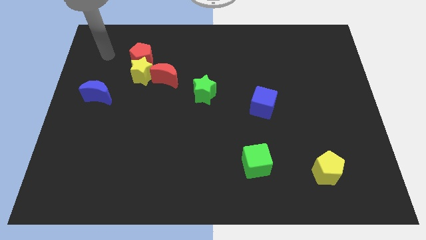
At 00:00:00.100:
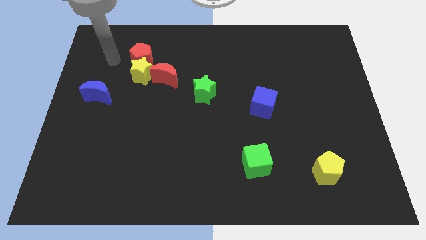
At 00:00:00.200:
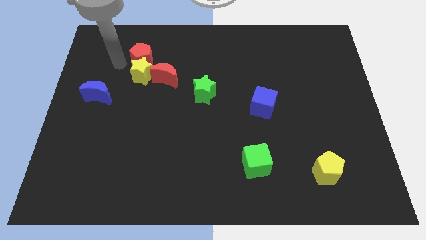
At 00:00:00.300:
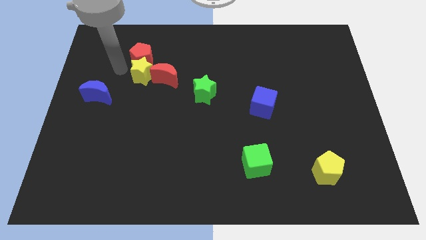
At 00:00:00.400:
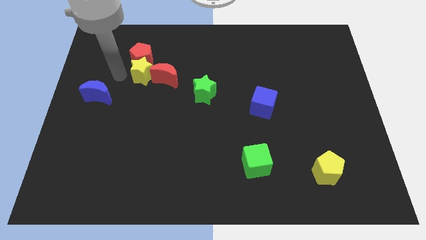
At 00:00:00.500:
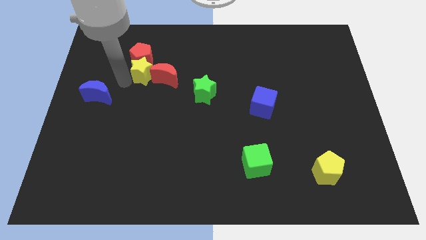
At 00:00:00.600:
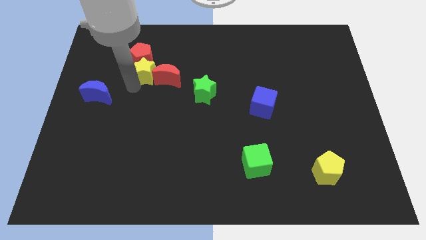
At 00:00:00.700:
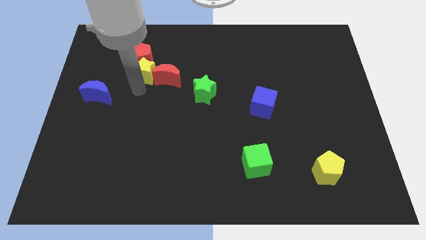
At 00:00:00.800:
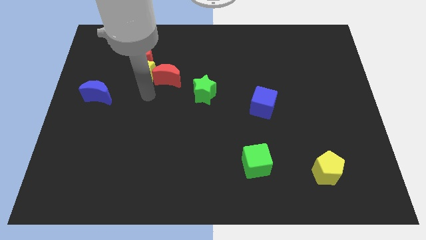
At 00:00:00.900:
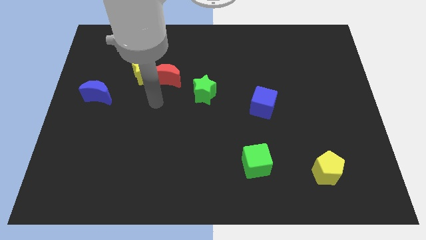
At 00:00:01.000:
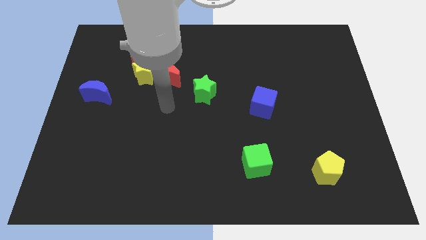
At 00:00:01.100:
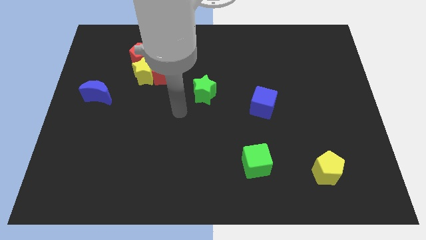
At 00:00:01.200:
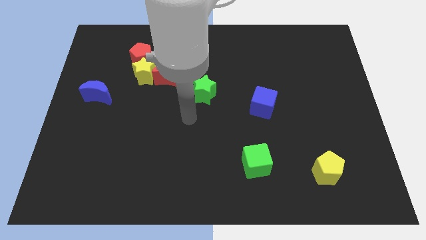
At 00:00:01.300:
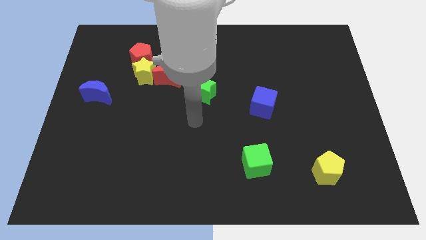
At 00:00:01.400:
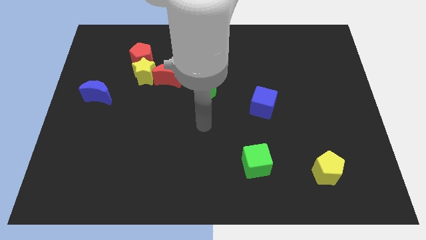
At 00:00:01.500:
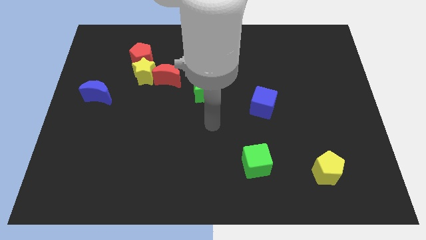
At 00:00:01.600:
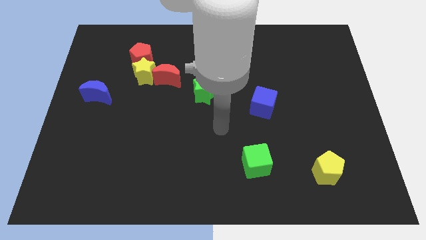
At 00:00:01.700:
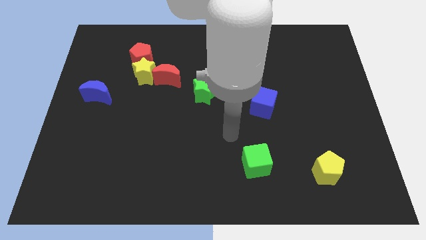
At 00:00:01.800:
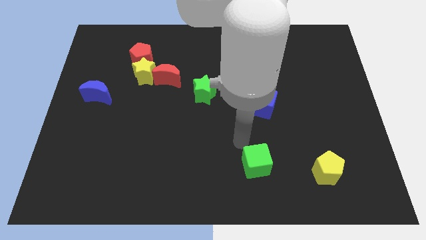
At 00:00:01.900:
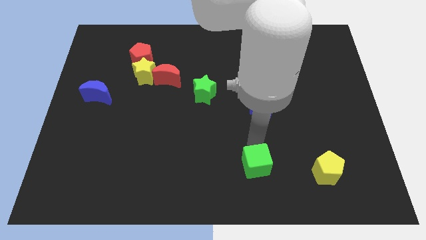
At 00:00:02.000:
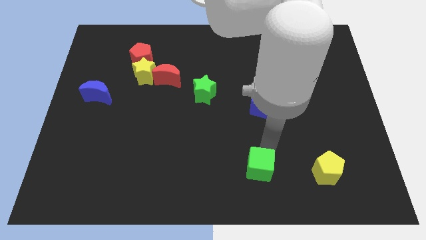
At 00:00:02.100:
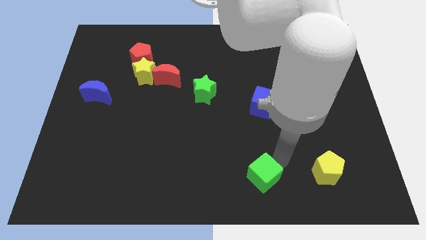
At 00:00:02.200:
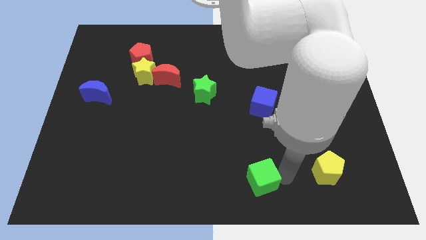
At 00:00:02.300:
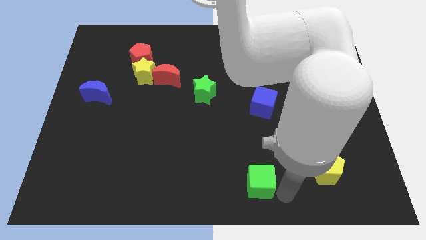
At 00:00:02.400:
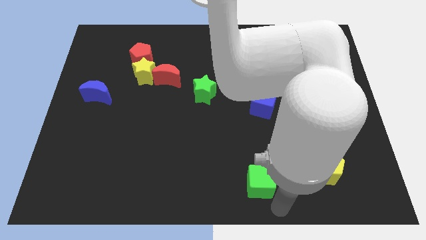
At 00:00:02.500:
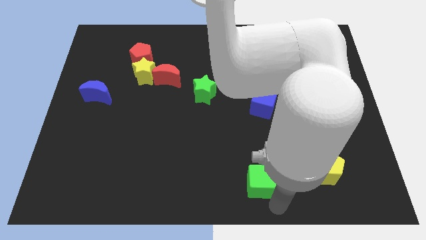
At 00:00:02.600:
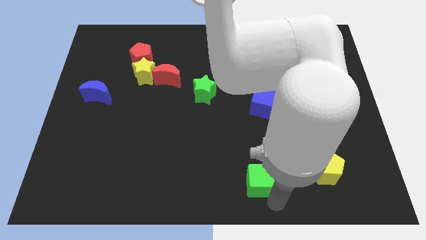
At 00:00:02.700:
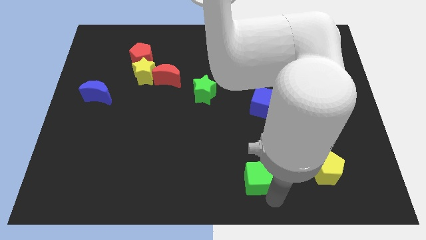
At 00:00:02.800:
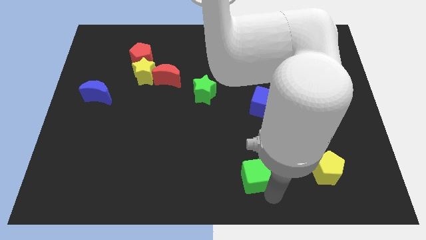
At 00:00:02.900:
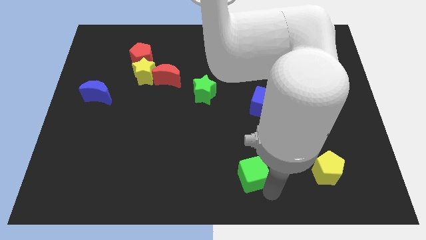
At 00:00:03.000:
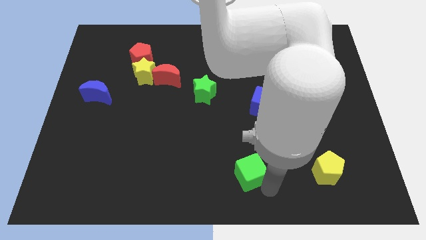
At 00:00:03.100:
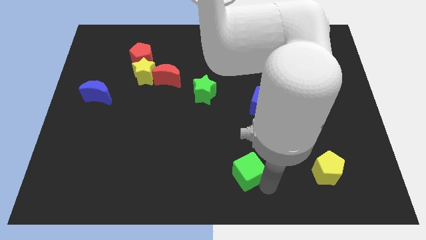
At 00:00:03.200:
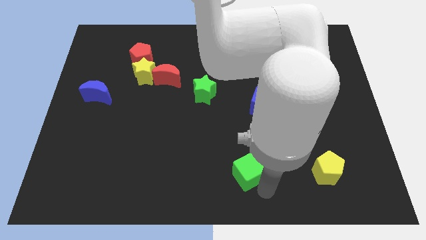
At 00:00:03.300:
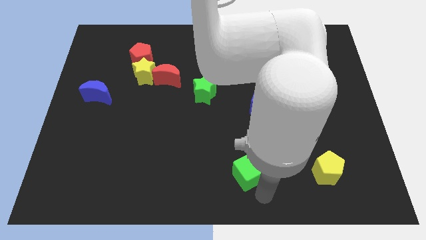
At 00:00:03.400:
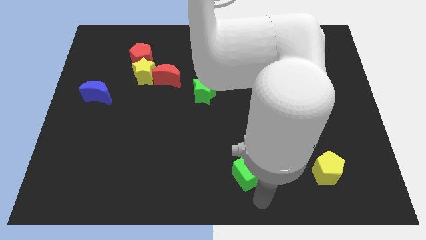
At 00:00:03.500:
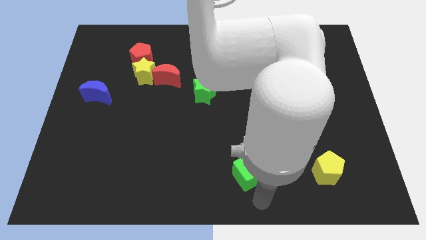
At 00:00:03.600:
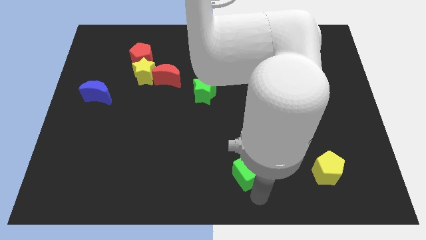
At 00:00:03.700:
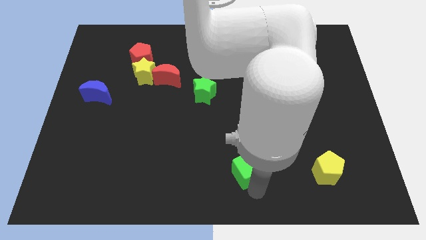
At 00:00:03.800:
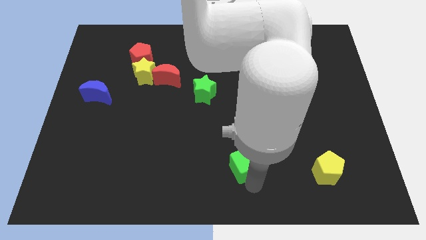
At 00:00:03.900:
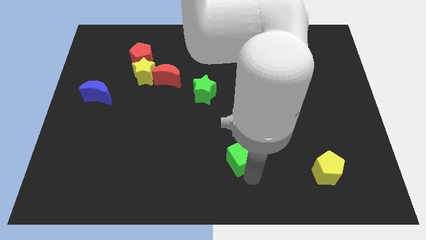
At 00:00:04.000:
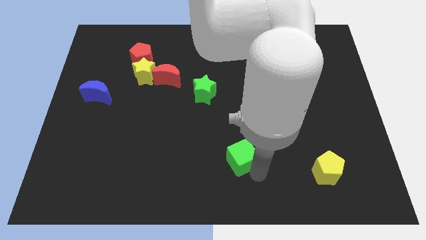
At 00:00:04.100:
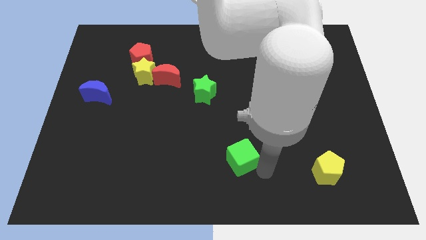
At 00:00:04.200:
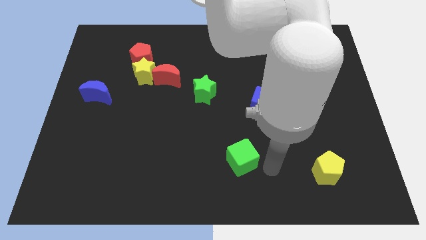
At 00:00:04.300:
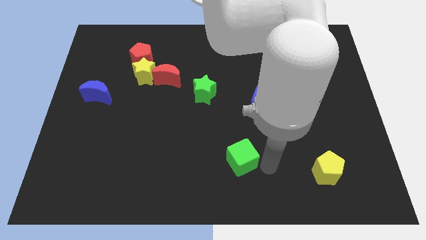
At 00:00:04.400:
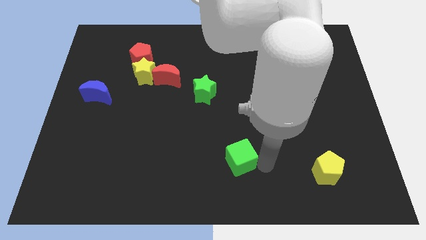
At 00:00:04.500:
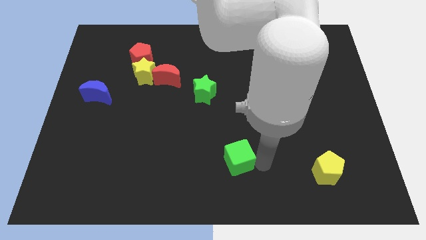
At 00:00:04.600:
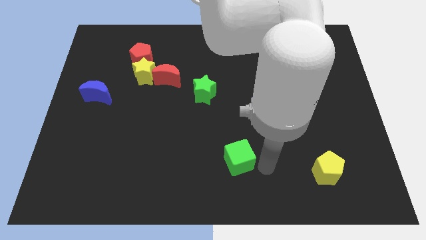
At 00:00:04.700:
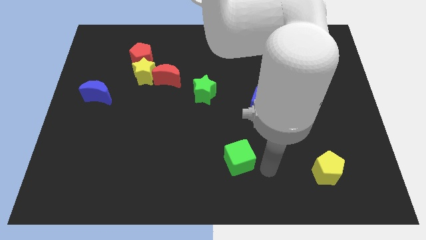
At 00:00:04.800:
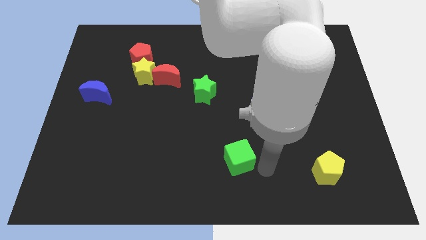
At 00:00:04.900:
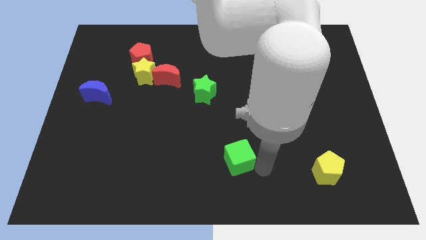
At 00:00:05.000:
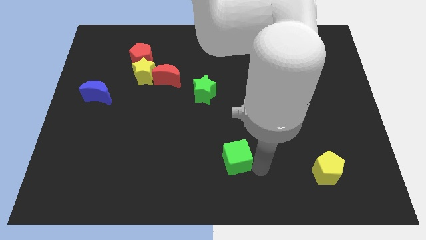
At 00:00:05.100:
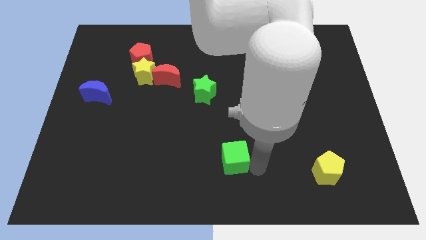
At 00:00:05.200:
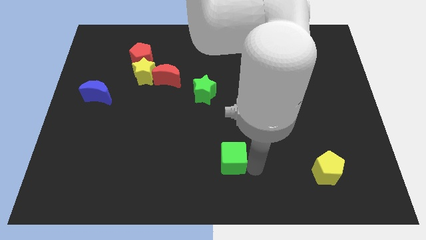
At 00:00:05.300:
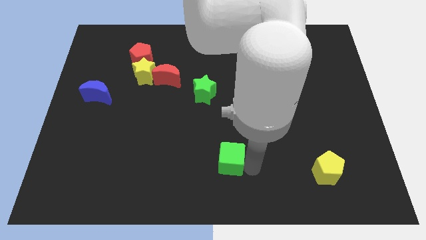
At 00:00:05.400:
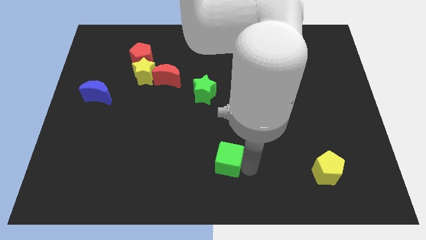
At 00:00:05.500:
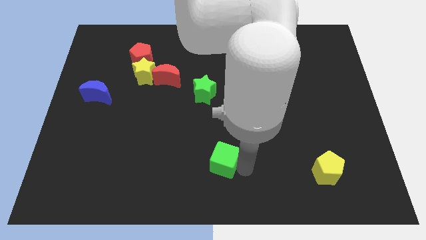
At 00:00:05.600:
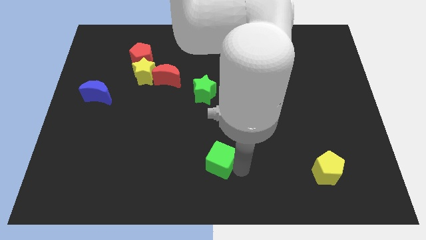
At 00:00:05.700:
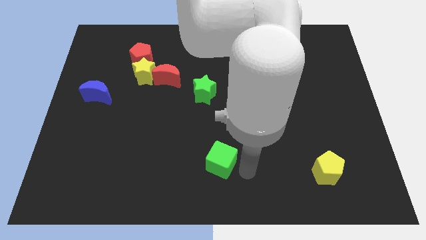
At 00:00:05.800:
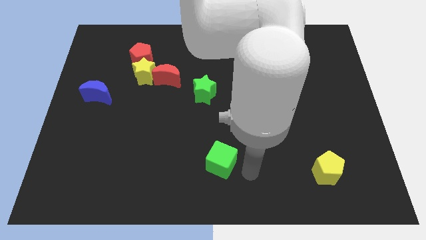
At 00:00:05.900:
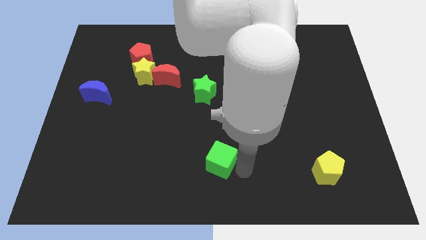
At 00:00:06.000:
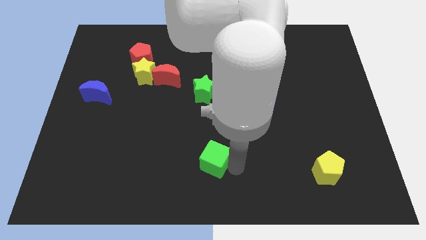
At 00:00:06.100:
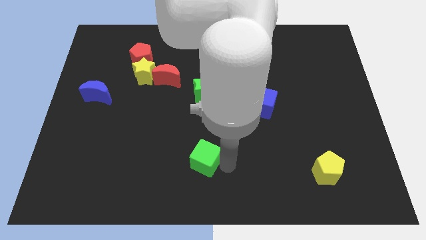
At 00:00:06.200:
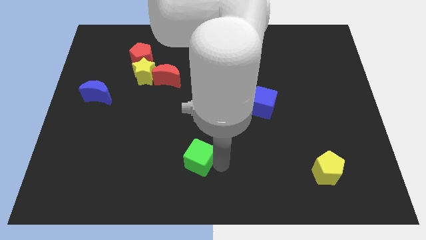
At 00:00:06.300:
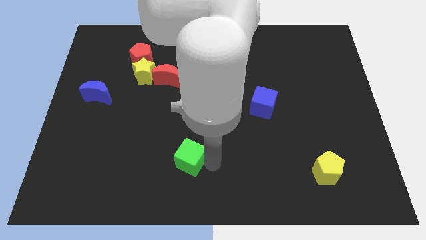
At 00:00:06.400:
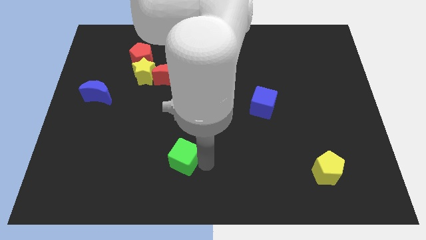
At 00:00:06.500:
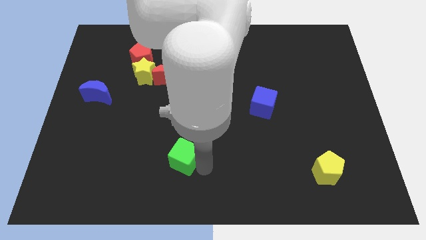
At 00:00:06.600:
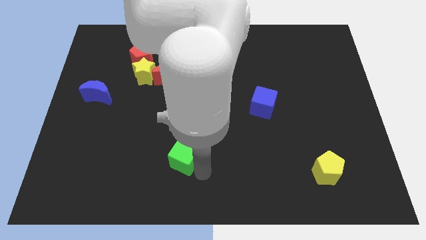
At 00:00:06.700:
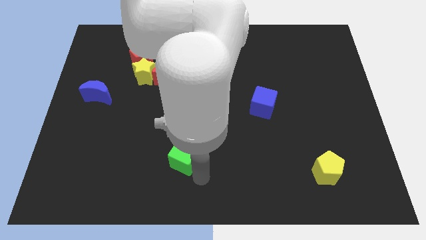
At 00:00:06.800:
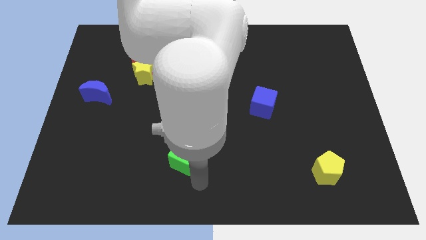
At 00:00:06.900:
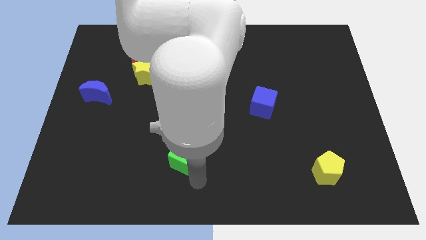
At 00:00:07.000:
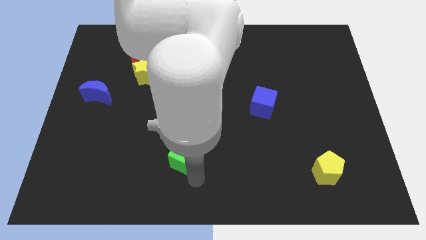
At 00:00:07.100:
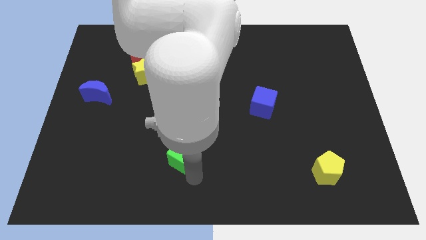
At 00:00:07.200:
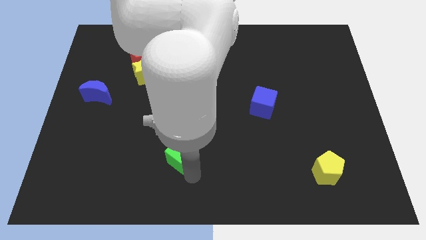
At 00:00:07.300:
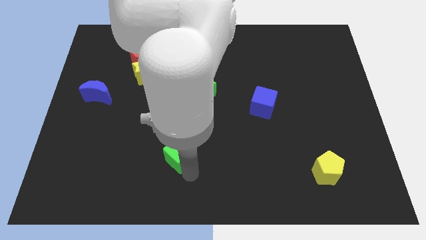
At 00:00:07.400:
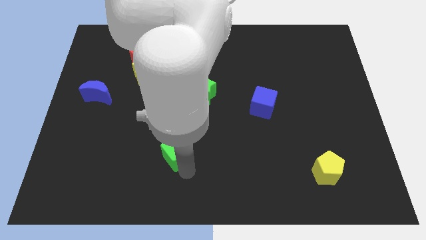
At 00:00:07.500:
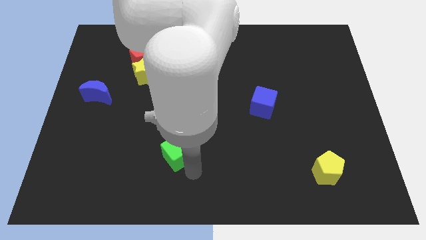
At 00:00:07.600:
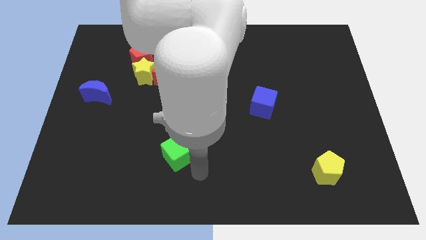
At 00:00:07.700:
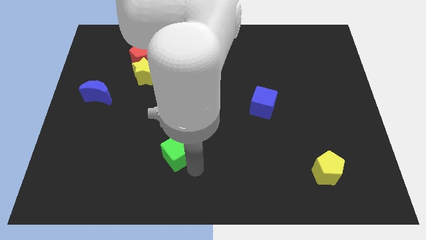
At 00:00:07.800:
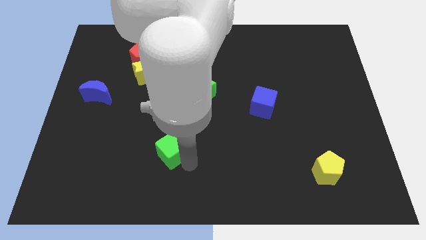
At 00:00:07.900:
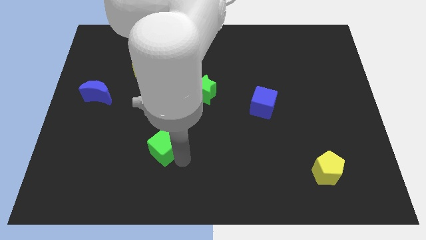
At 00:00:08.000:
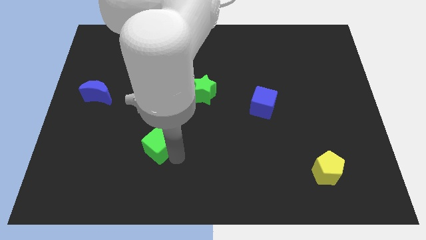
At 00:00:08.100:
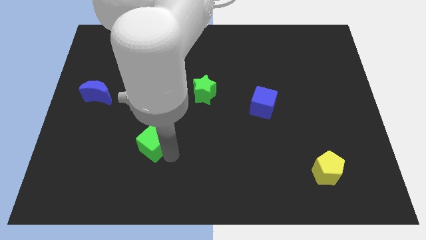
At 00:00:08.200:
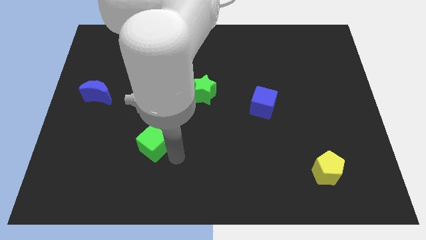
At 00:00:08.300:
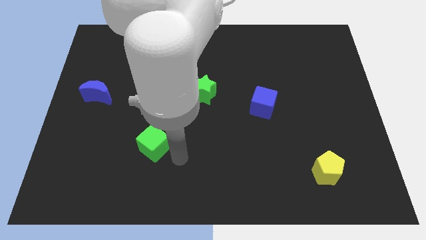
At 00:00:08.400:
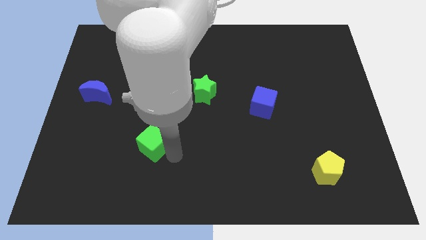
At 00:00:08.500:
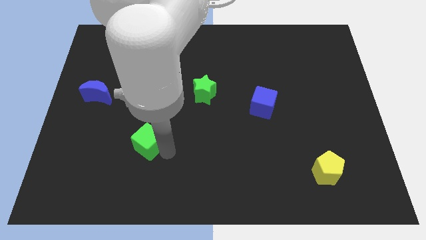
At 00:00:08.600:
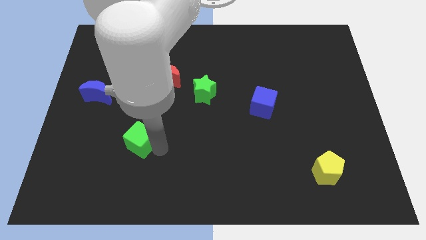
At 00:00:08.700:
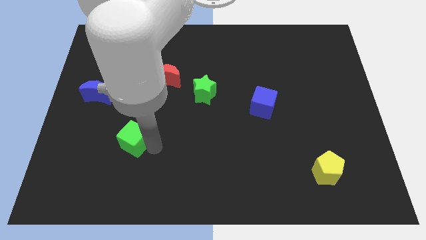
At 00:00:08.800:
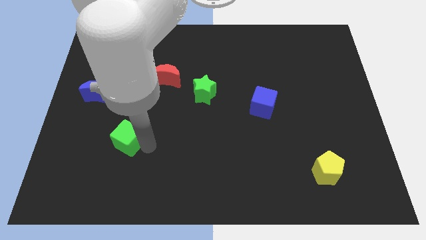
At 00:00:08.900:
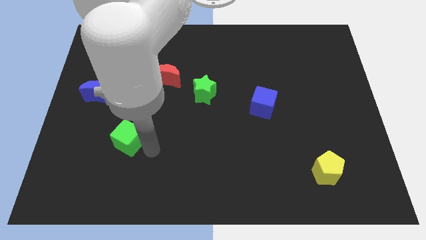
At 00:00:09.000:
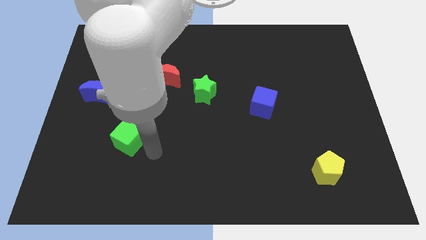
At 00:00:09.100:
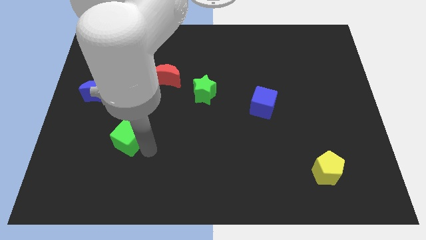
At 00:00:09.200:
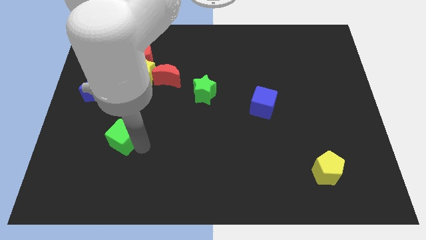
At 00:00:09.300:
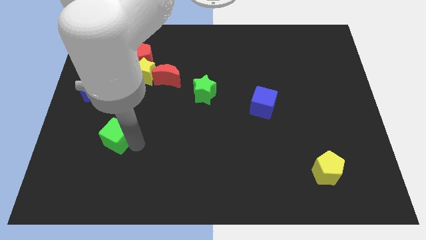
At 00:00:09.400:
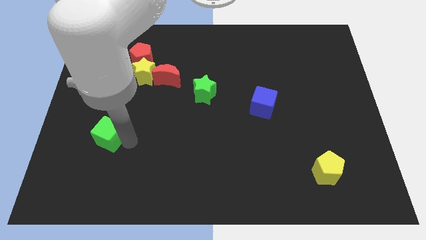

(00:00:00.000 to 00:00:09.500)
move the green cube below the blue moon
